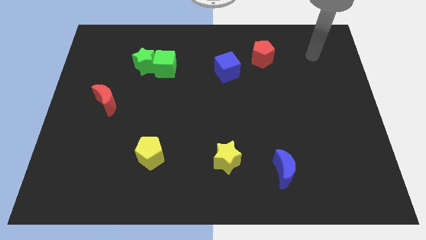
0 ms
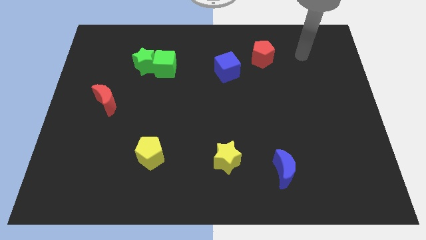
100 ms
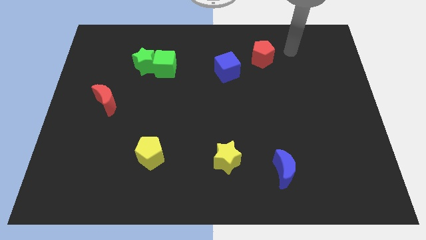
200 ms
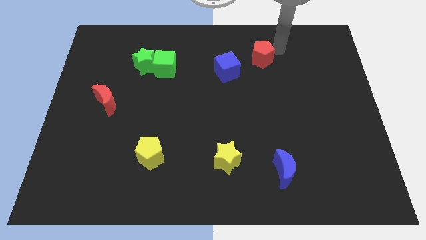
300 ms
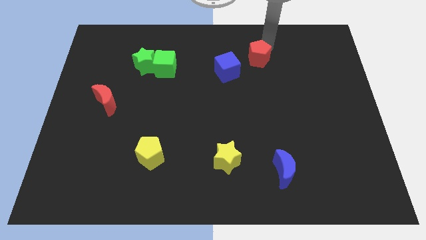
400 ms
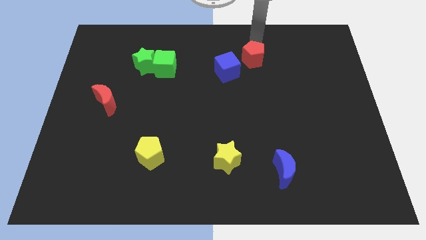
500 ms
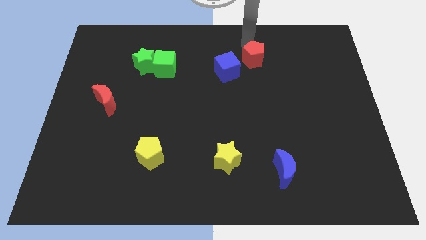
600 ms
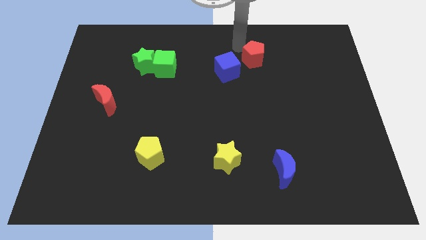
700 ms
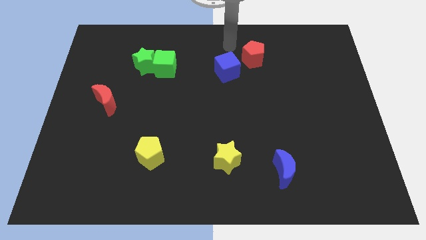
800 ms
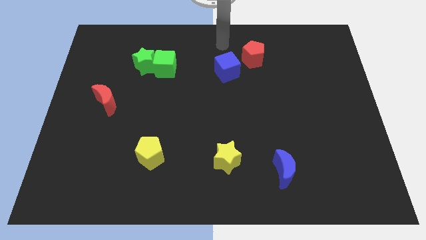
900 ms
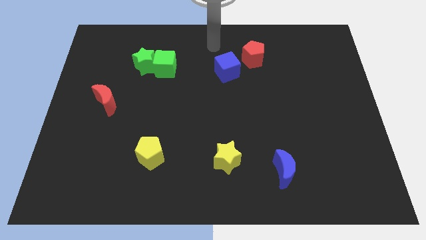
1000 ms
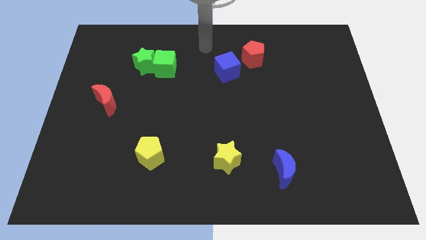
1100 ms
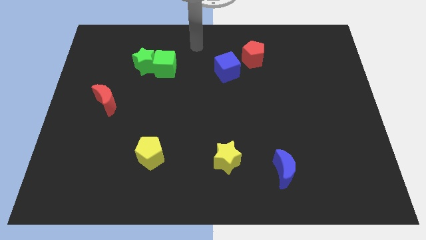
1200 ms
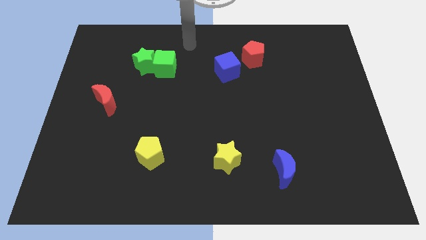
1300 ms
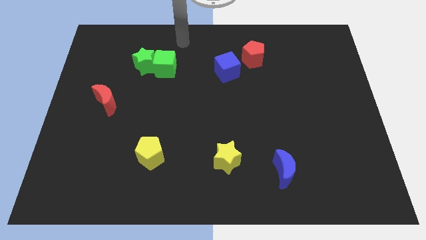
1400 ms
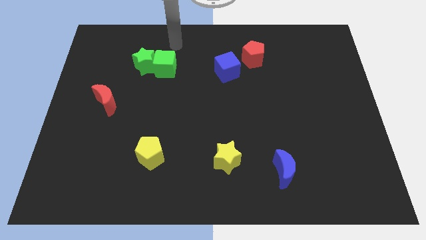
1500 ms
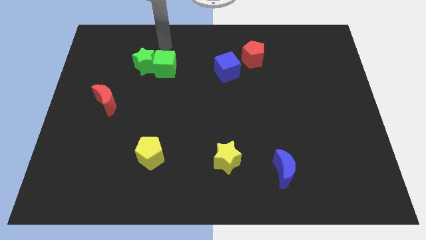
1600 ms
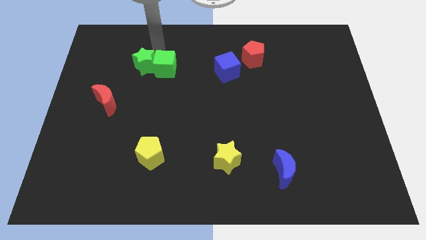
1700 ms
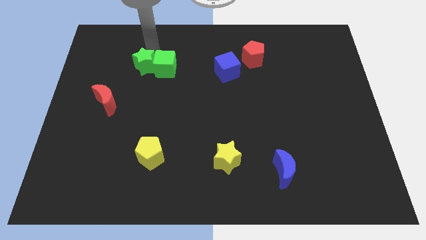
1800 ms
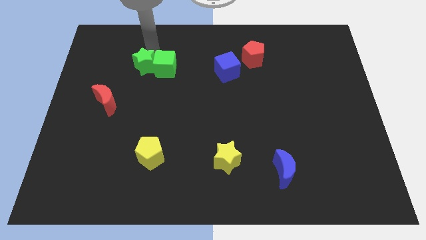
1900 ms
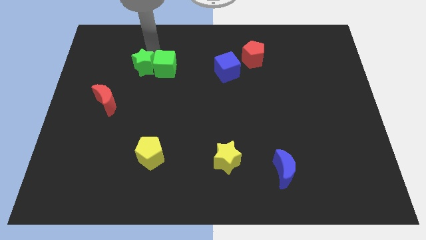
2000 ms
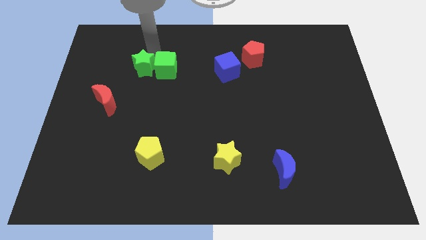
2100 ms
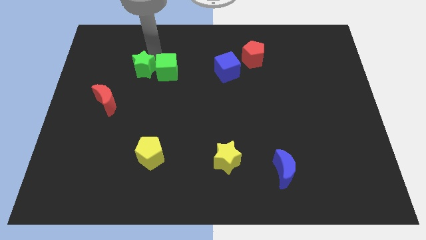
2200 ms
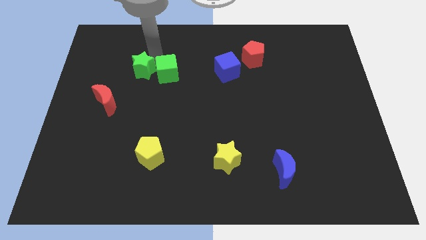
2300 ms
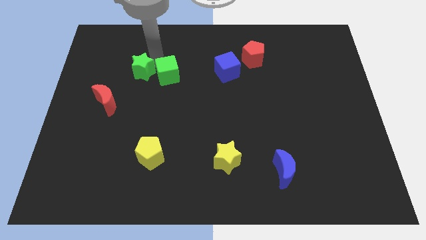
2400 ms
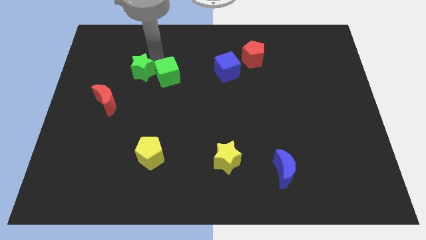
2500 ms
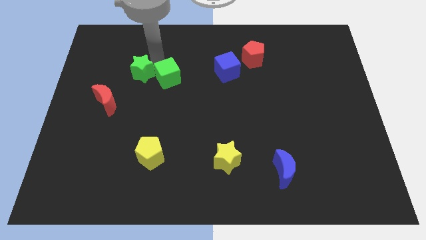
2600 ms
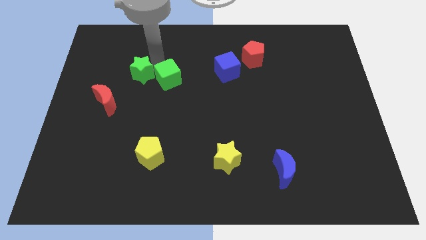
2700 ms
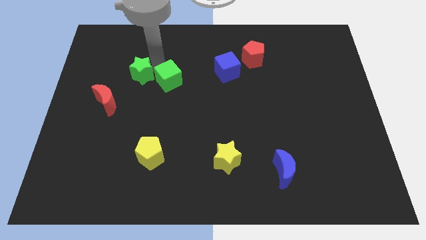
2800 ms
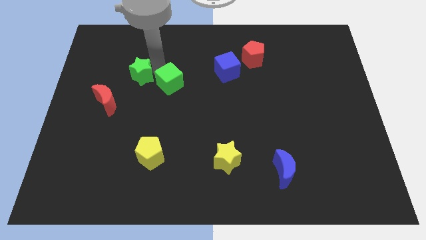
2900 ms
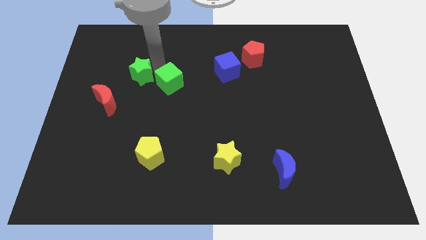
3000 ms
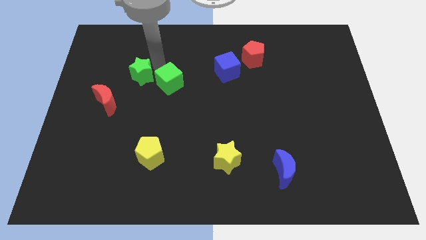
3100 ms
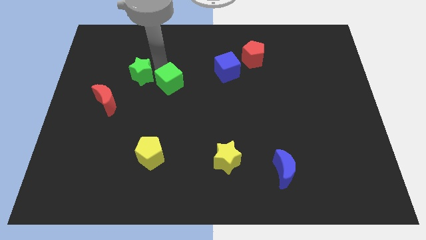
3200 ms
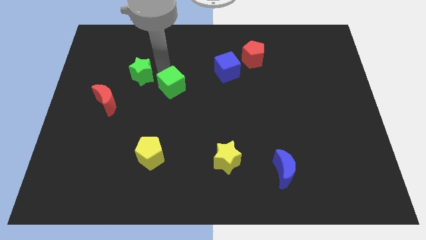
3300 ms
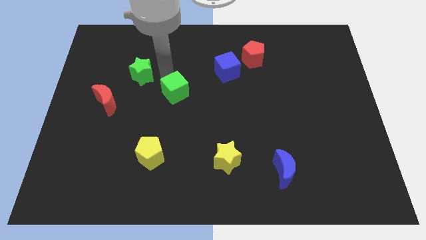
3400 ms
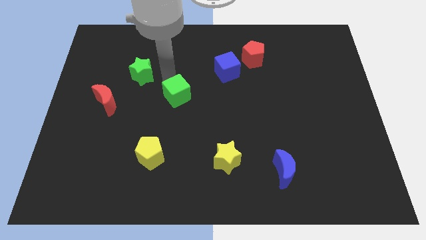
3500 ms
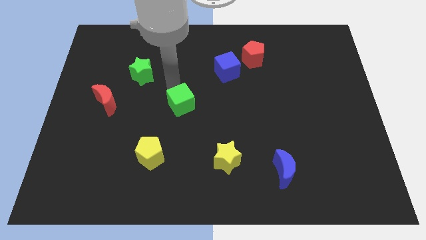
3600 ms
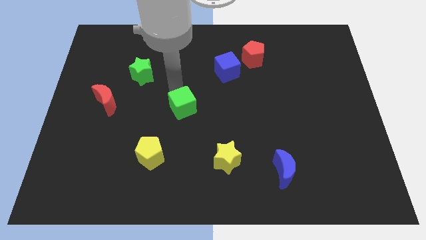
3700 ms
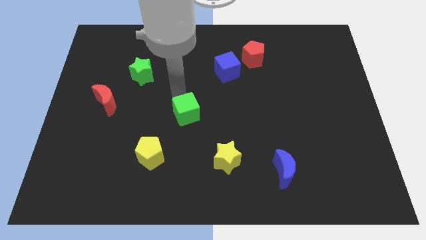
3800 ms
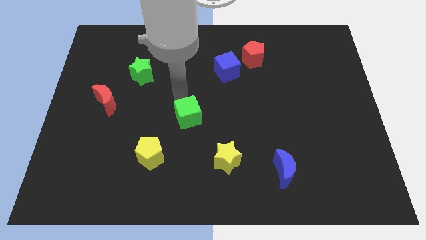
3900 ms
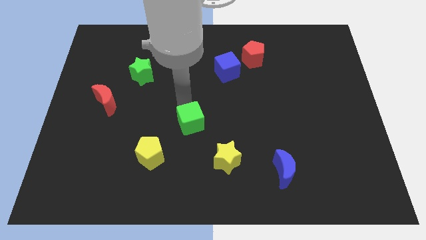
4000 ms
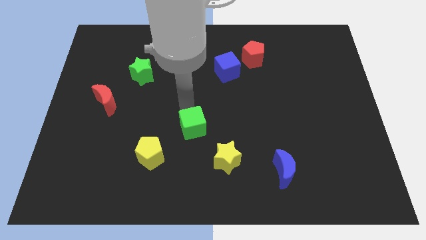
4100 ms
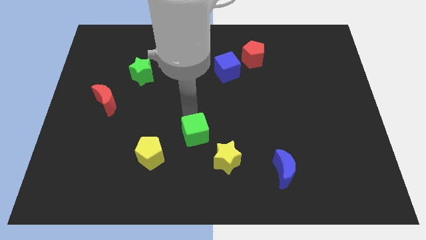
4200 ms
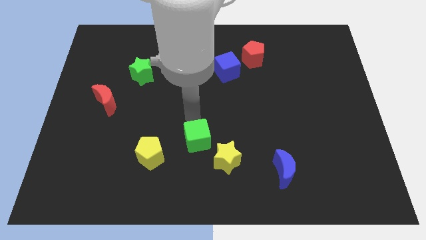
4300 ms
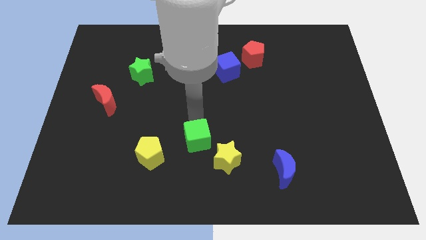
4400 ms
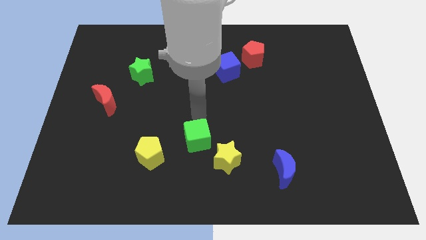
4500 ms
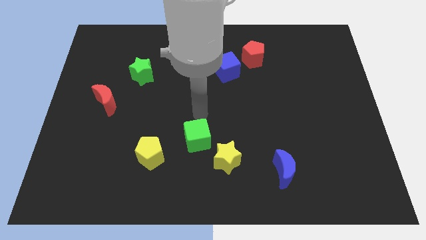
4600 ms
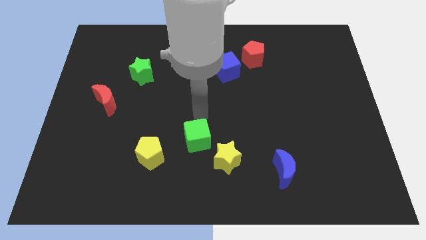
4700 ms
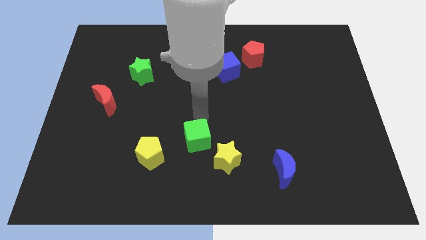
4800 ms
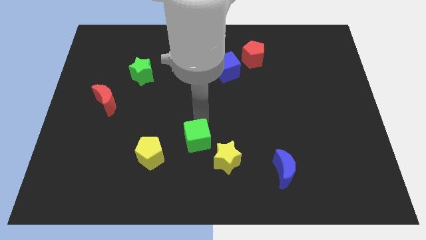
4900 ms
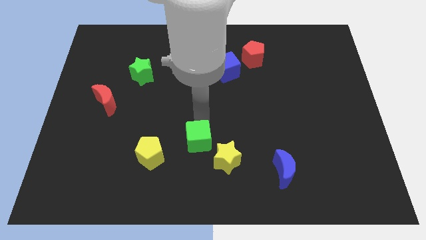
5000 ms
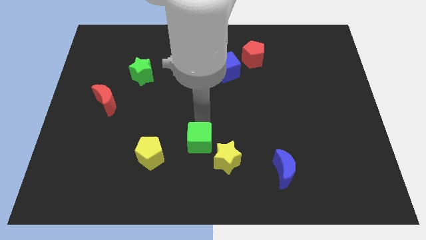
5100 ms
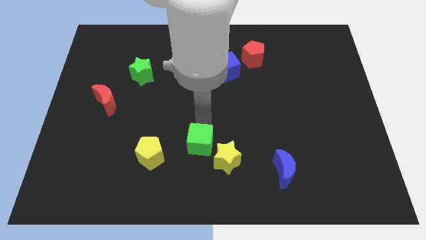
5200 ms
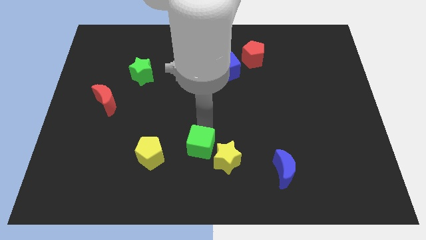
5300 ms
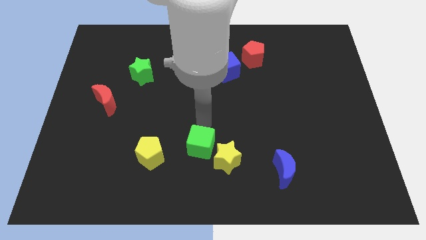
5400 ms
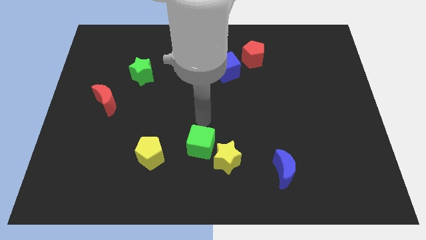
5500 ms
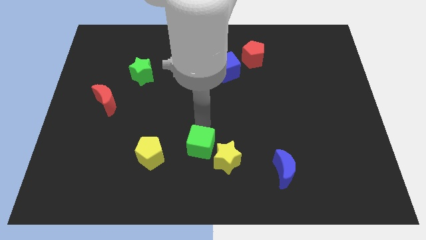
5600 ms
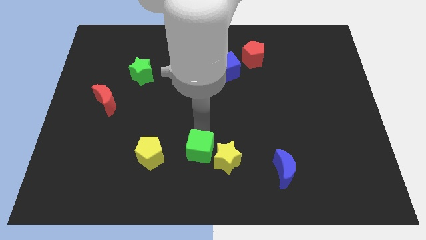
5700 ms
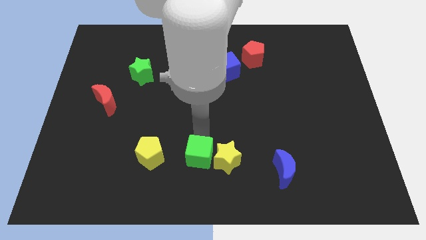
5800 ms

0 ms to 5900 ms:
move the green cube to the bottom side

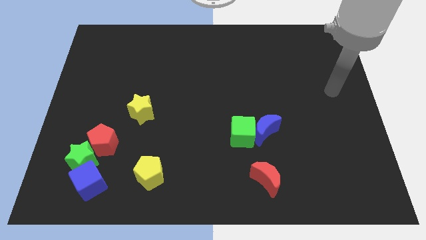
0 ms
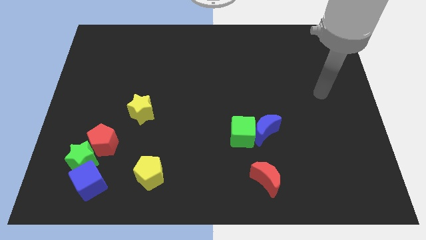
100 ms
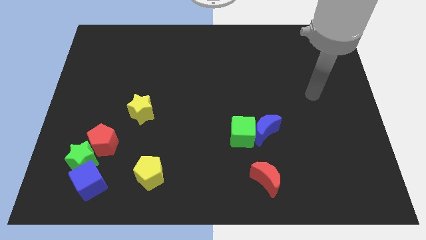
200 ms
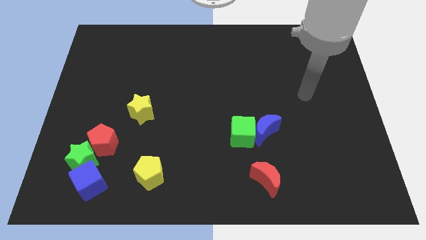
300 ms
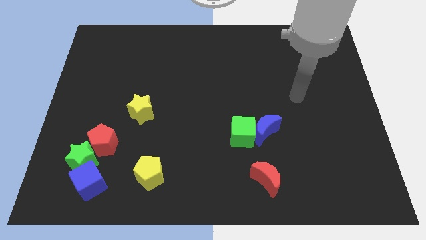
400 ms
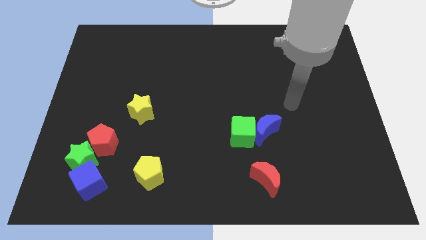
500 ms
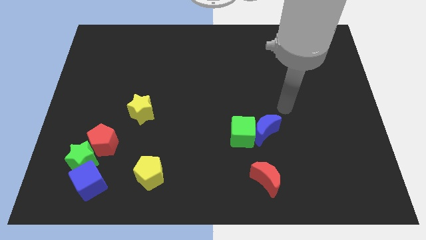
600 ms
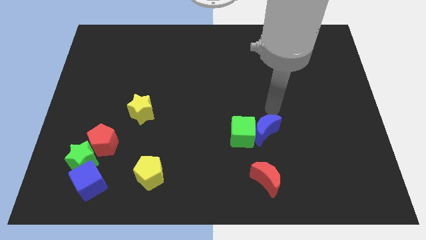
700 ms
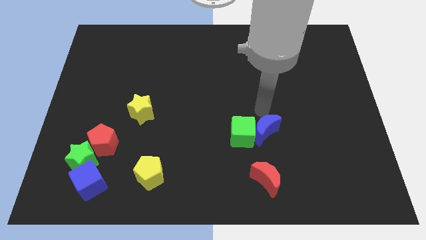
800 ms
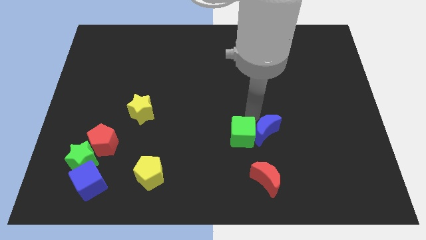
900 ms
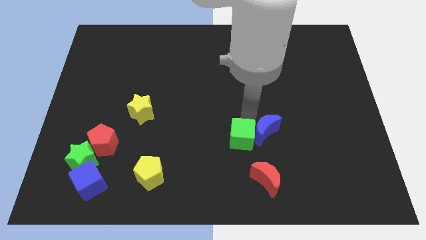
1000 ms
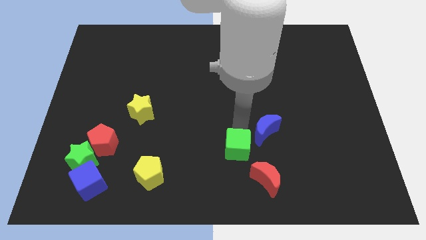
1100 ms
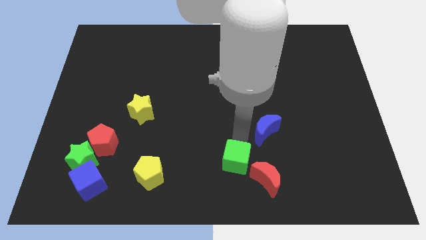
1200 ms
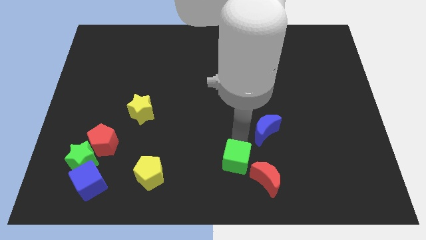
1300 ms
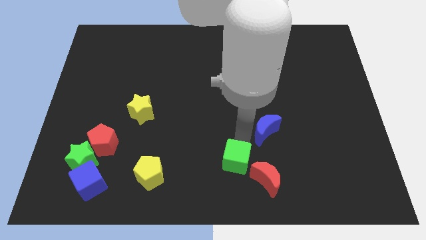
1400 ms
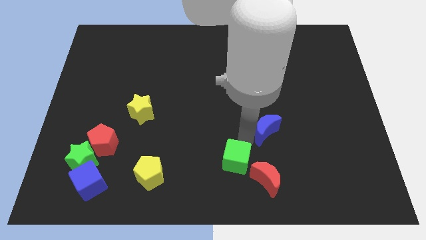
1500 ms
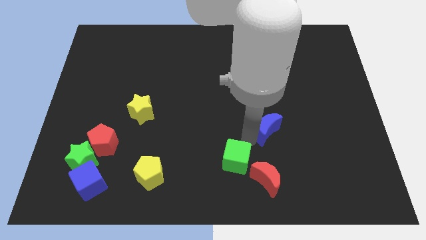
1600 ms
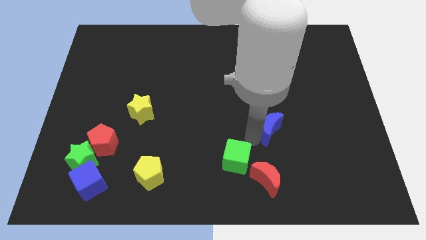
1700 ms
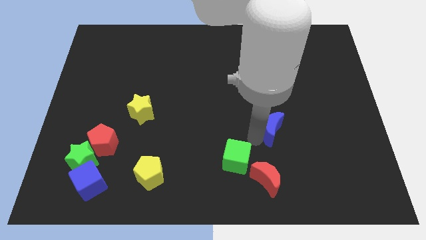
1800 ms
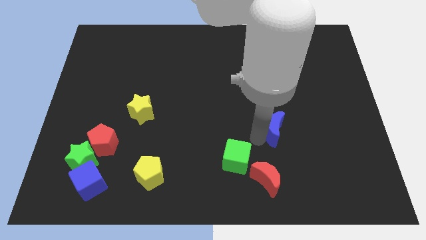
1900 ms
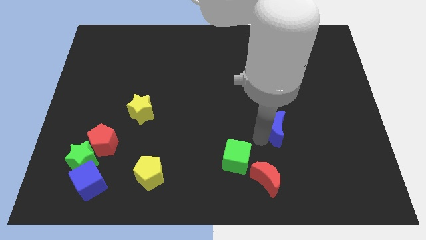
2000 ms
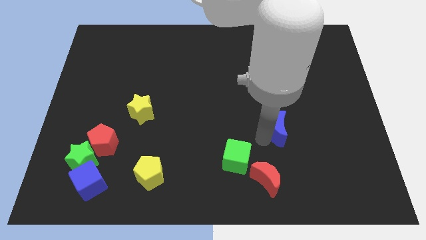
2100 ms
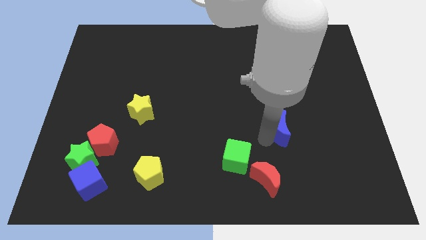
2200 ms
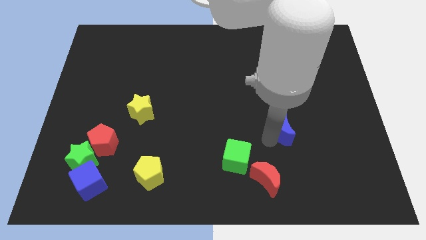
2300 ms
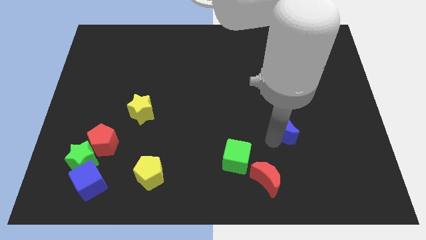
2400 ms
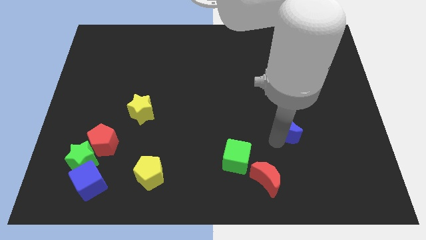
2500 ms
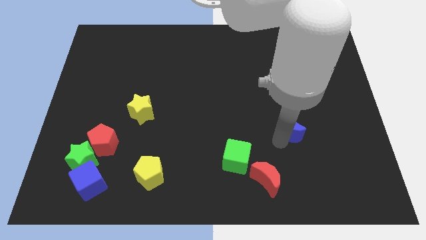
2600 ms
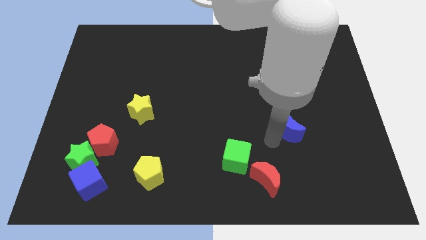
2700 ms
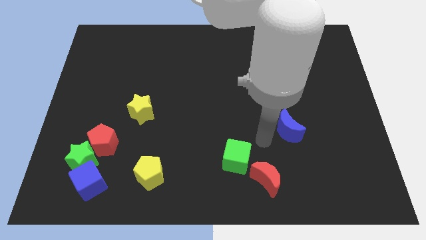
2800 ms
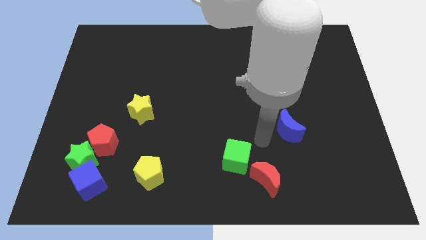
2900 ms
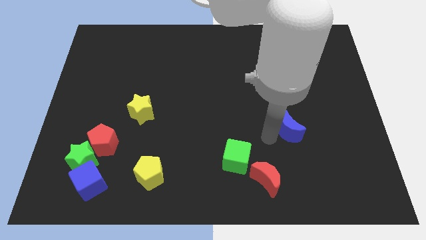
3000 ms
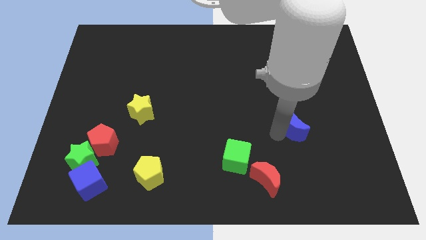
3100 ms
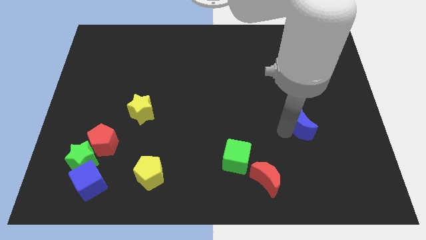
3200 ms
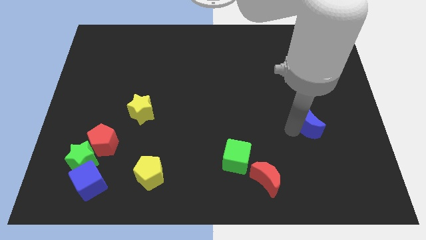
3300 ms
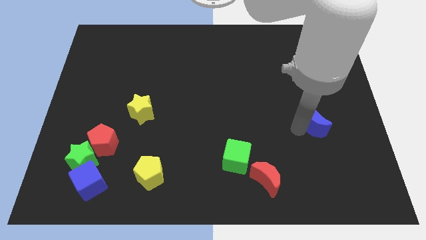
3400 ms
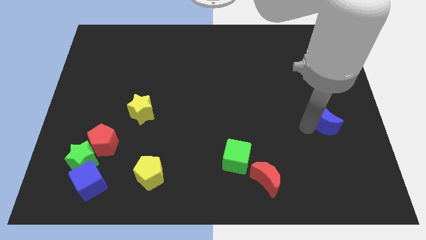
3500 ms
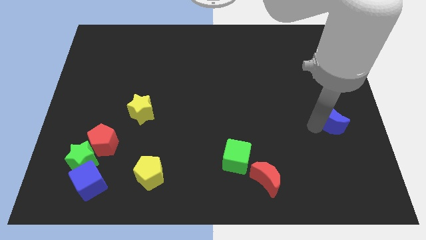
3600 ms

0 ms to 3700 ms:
push the blue moon to the center right
